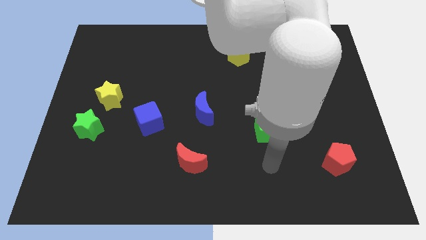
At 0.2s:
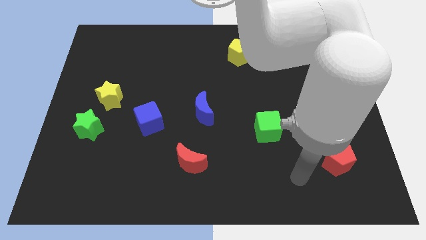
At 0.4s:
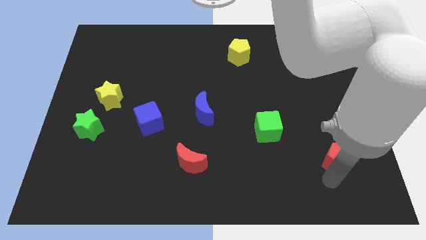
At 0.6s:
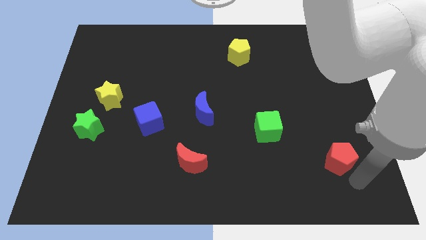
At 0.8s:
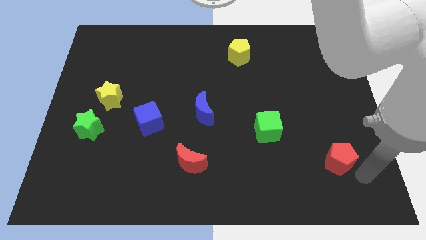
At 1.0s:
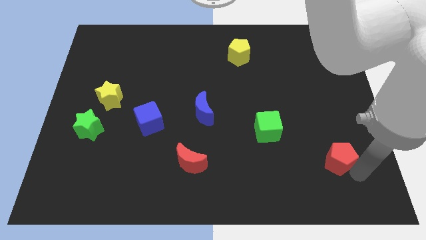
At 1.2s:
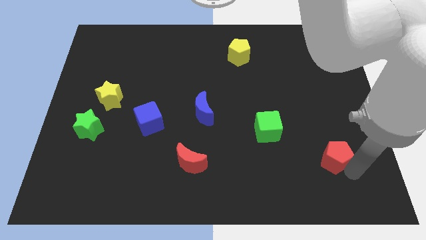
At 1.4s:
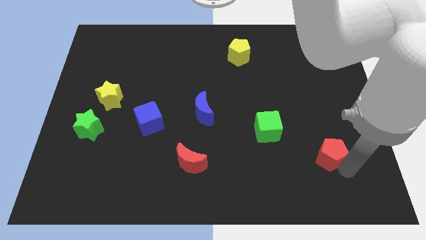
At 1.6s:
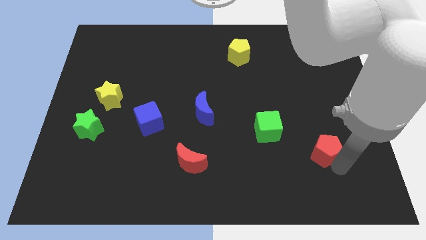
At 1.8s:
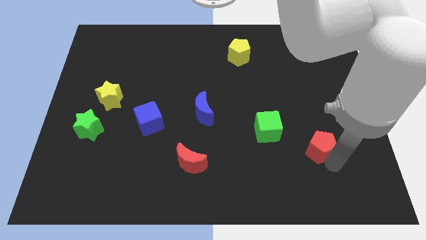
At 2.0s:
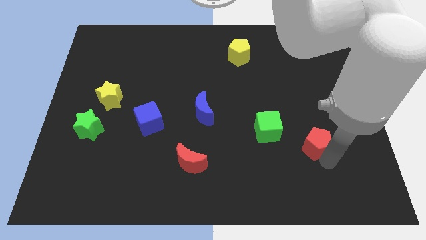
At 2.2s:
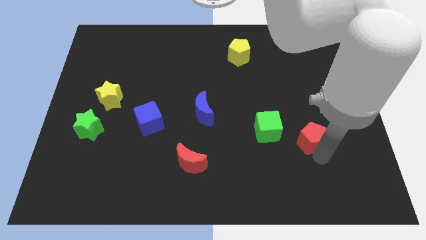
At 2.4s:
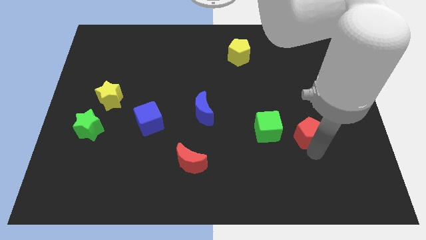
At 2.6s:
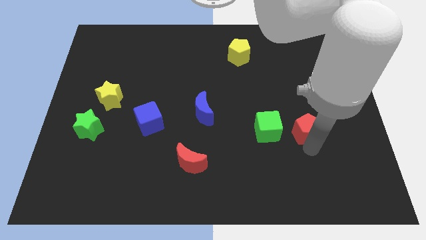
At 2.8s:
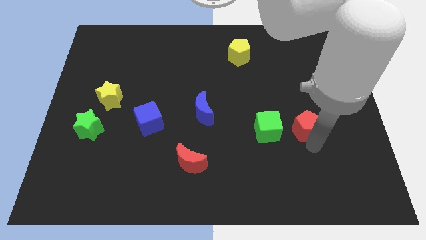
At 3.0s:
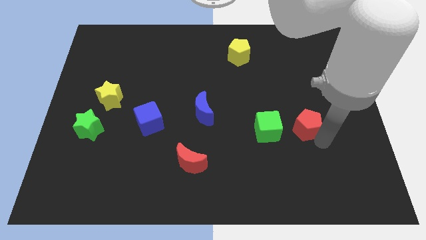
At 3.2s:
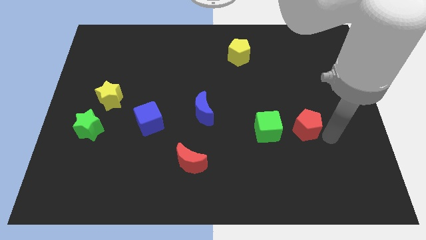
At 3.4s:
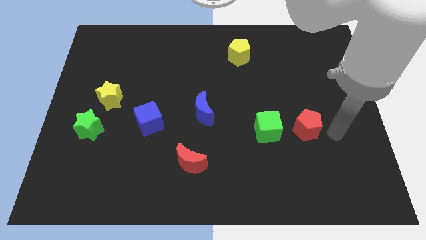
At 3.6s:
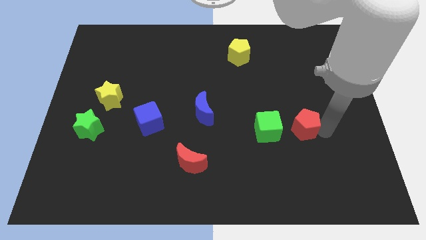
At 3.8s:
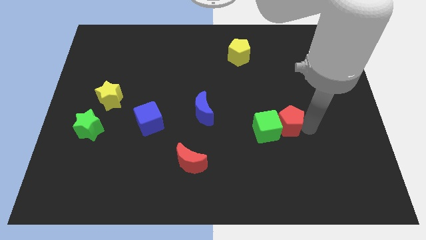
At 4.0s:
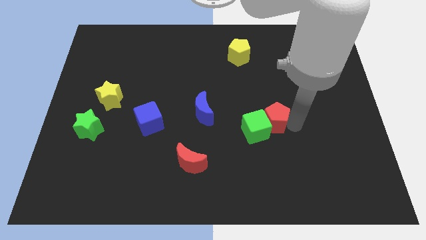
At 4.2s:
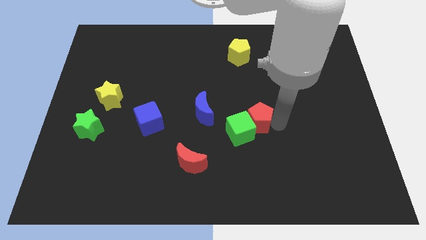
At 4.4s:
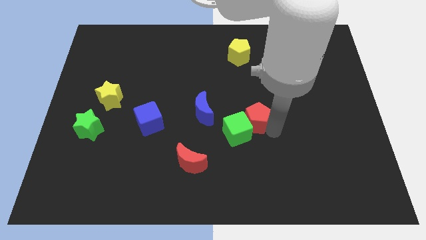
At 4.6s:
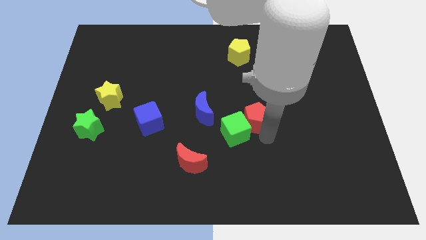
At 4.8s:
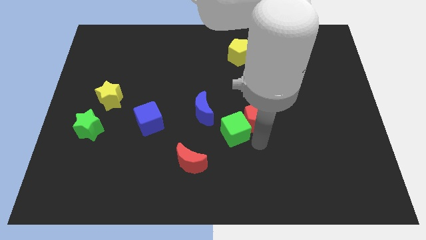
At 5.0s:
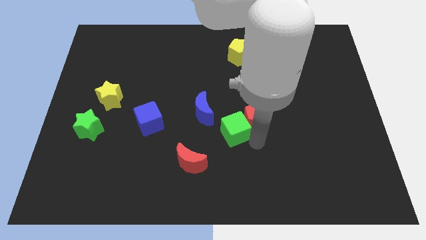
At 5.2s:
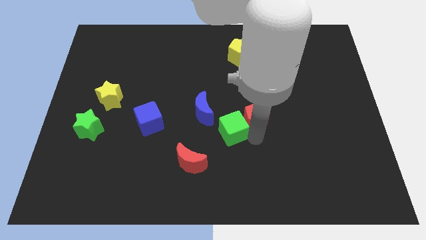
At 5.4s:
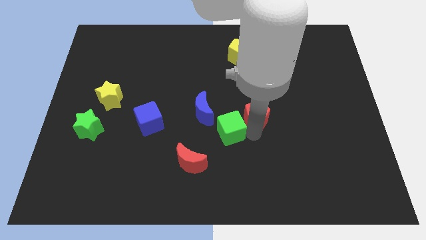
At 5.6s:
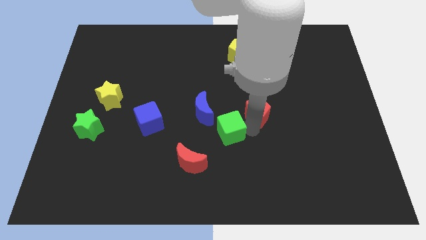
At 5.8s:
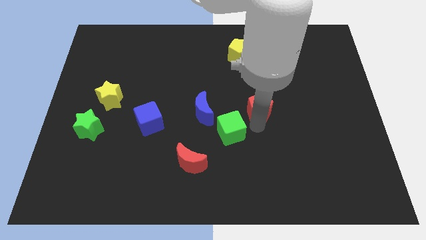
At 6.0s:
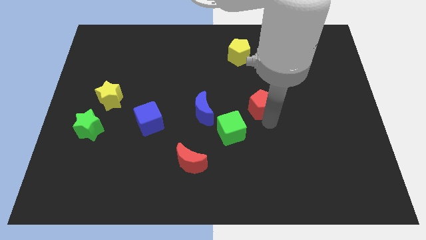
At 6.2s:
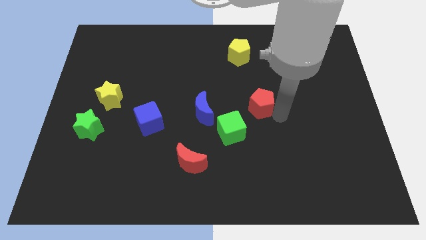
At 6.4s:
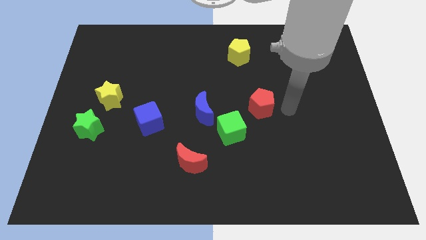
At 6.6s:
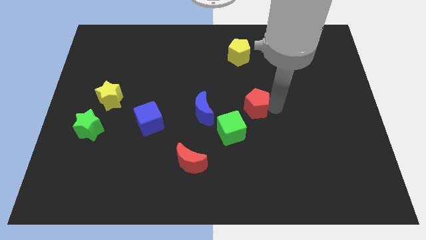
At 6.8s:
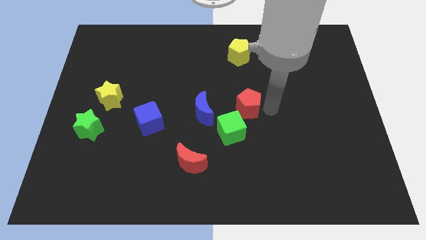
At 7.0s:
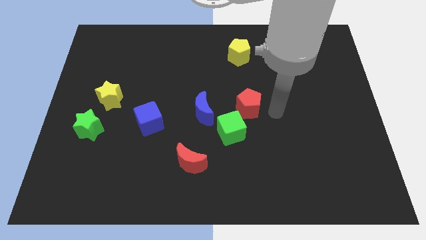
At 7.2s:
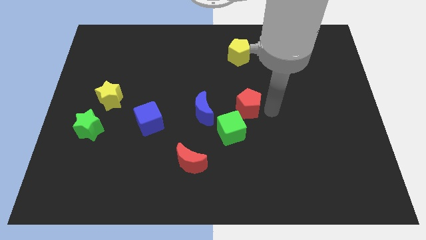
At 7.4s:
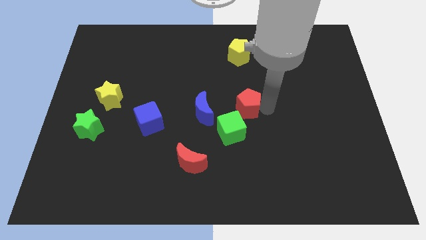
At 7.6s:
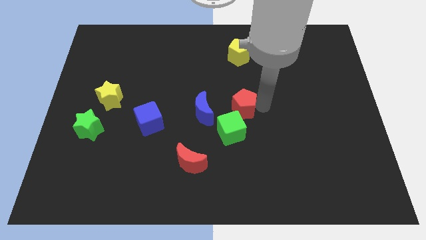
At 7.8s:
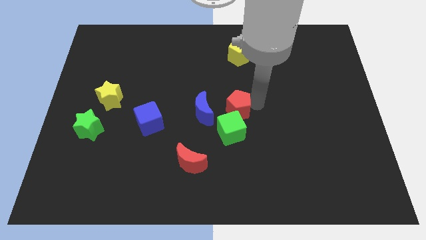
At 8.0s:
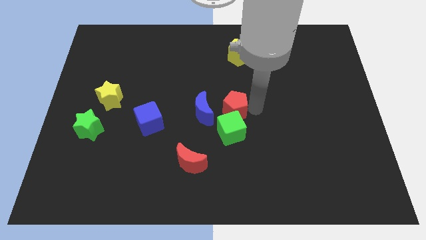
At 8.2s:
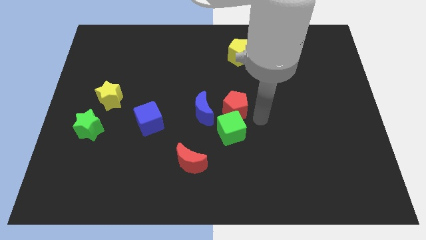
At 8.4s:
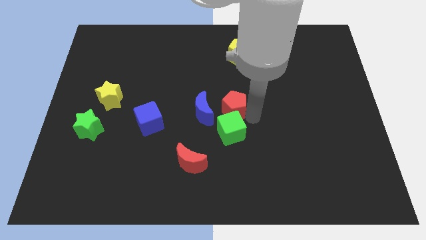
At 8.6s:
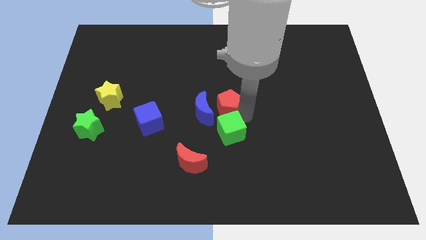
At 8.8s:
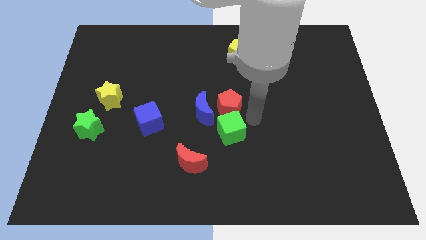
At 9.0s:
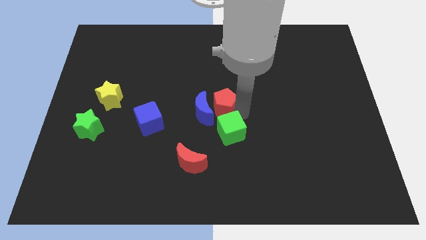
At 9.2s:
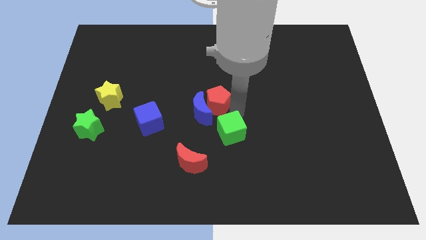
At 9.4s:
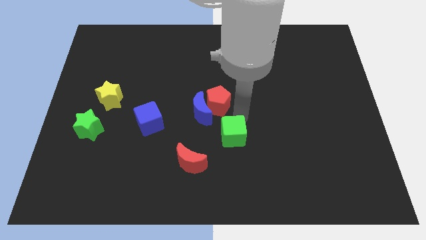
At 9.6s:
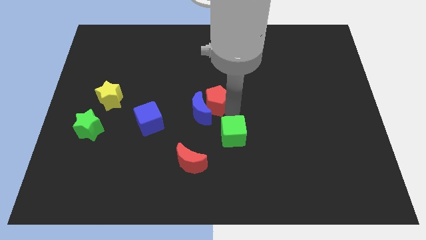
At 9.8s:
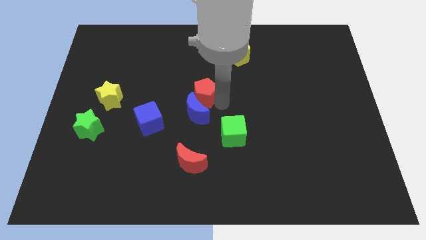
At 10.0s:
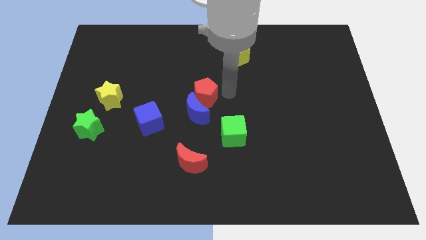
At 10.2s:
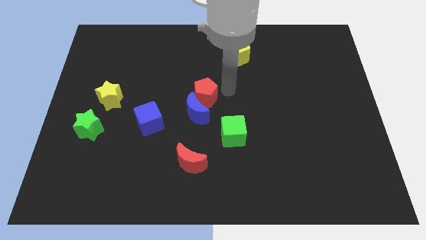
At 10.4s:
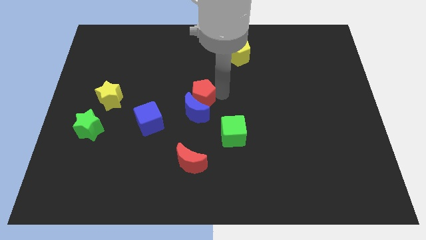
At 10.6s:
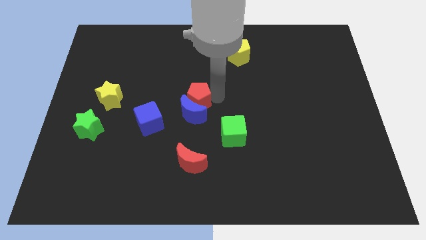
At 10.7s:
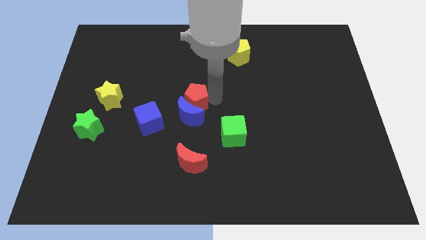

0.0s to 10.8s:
put the red pentagon to the top right side of the blue cube

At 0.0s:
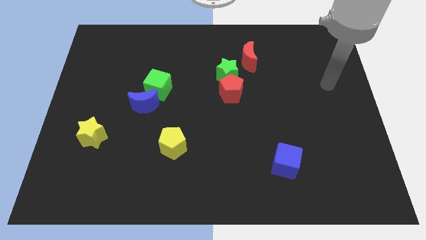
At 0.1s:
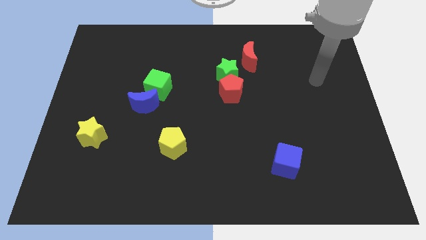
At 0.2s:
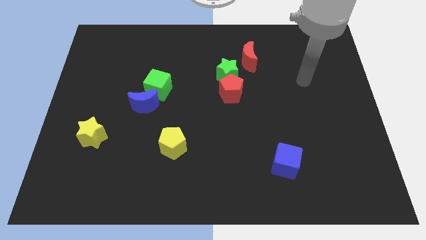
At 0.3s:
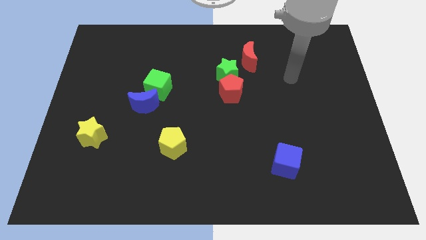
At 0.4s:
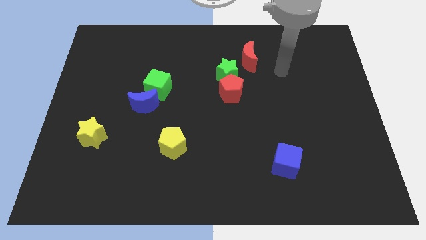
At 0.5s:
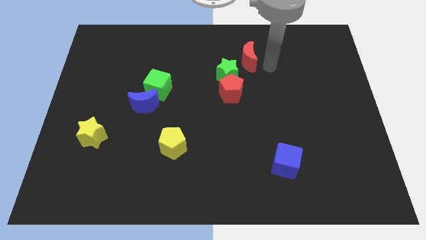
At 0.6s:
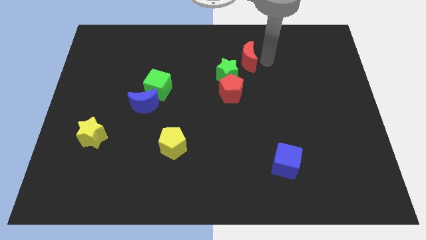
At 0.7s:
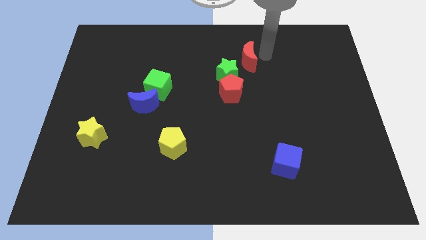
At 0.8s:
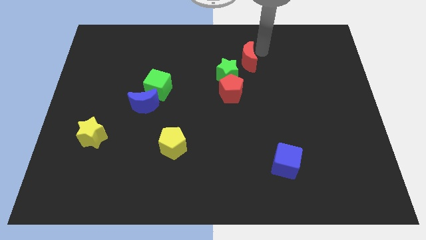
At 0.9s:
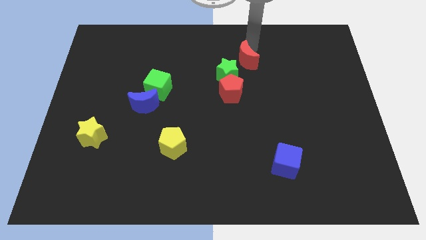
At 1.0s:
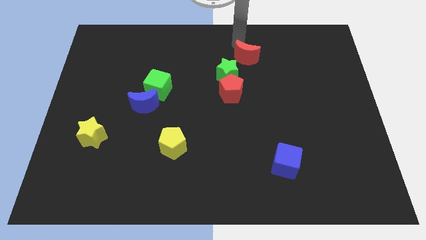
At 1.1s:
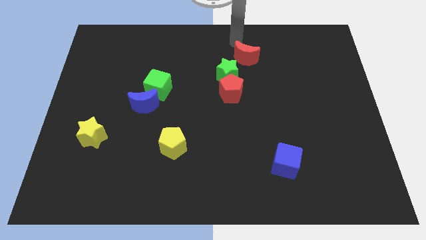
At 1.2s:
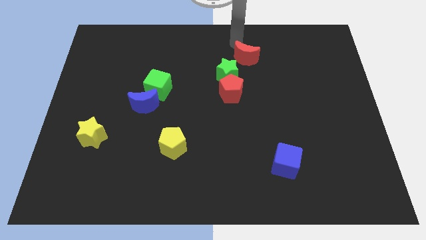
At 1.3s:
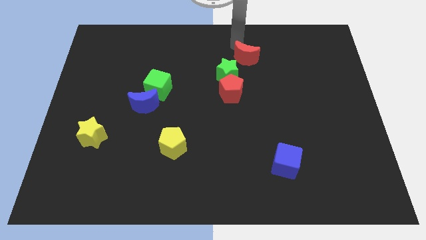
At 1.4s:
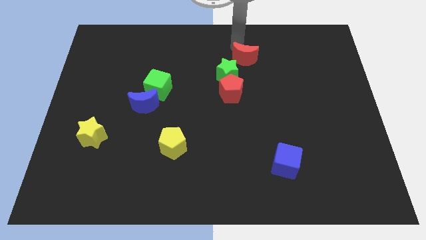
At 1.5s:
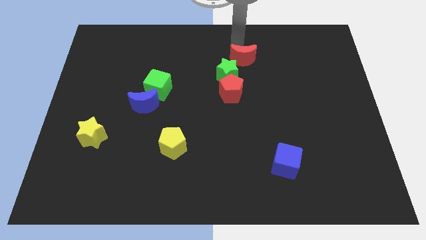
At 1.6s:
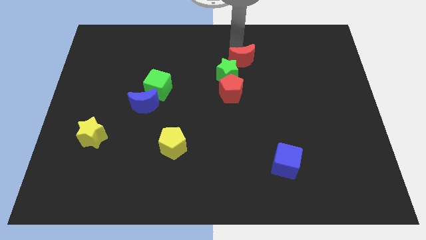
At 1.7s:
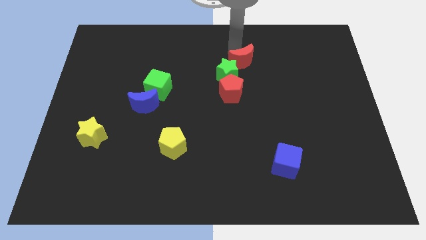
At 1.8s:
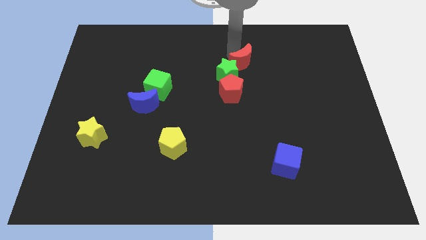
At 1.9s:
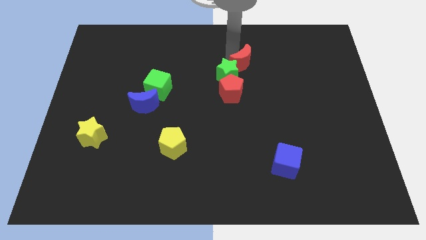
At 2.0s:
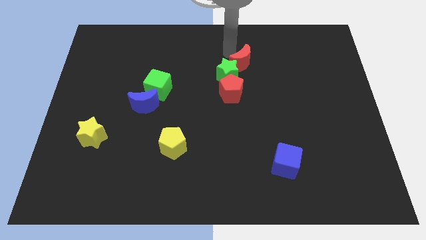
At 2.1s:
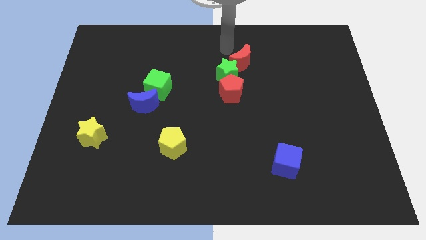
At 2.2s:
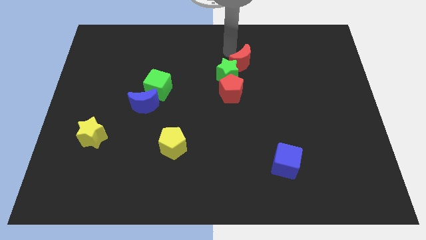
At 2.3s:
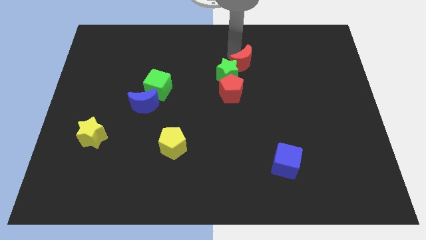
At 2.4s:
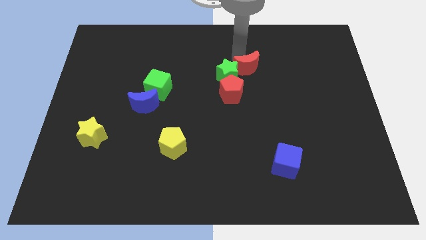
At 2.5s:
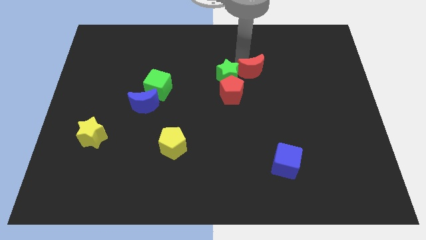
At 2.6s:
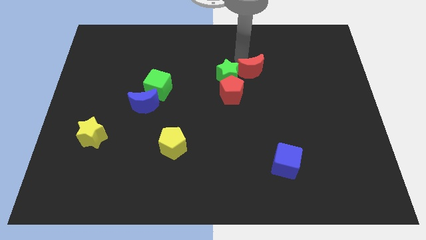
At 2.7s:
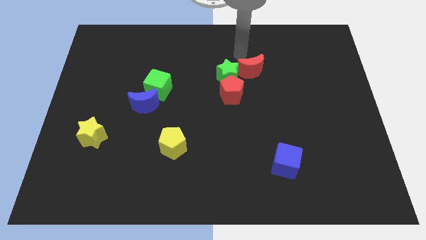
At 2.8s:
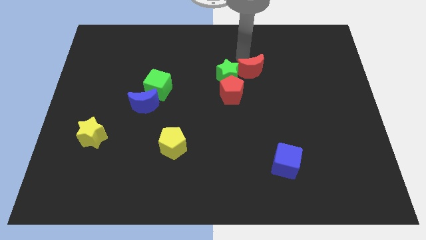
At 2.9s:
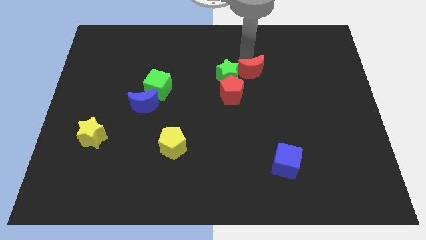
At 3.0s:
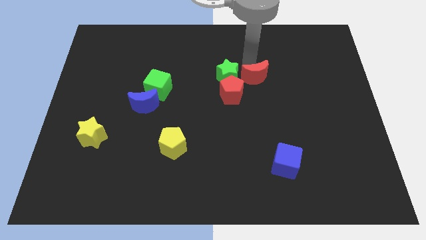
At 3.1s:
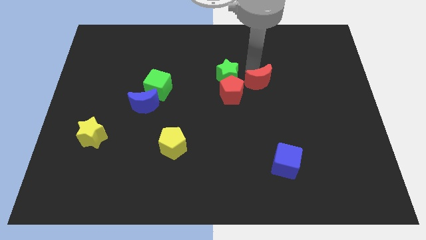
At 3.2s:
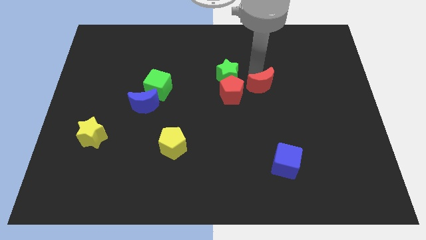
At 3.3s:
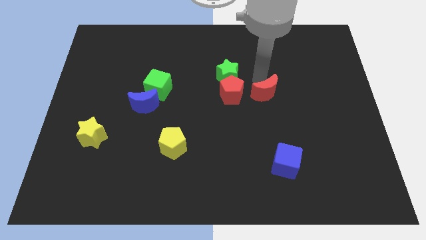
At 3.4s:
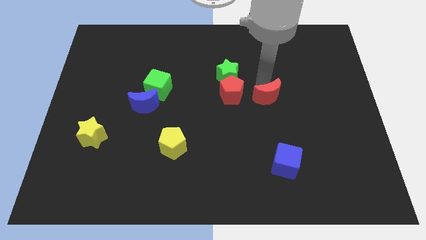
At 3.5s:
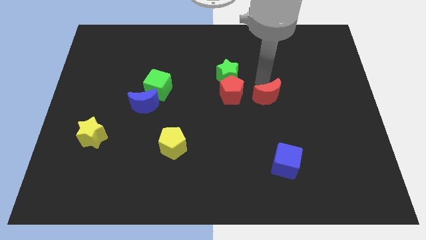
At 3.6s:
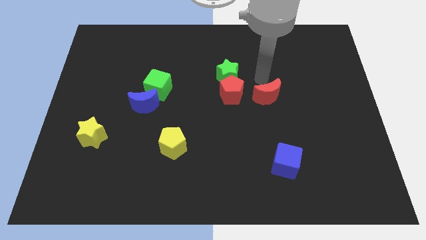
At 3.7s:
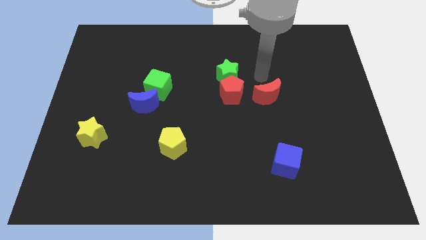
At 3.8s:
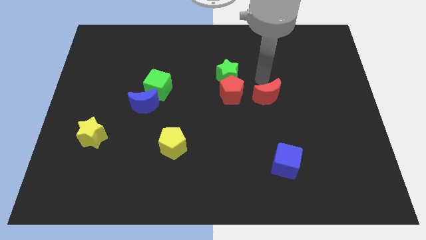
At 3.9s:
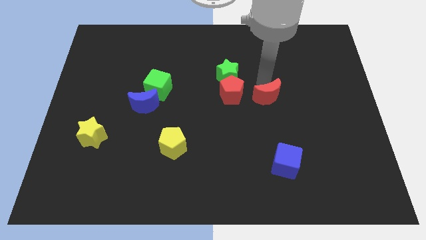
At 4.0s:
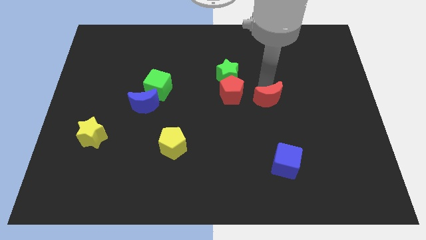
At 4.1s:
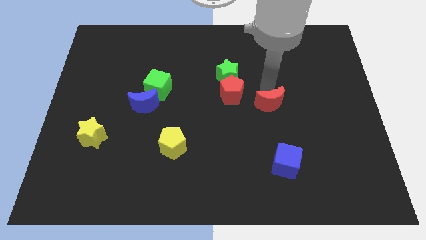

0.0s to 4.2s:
push the red moon to the top of the blue cube
